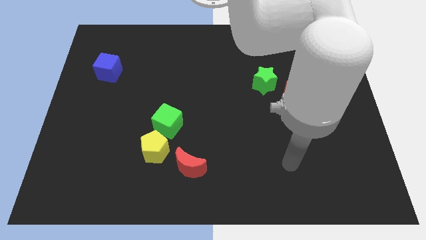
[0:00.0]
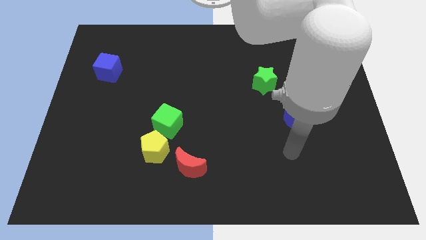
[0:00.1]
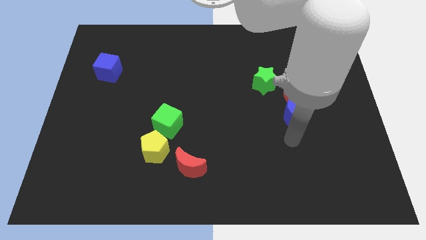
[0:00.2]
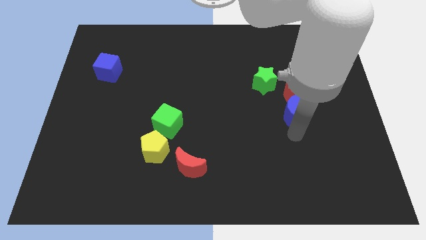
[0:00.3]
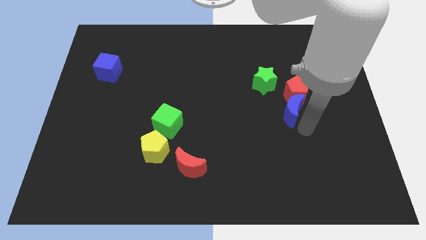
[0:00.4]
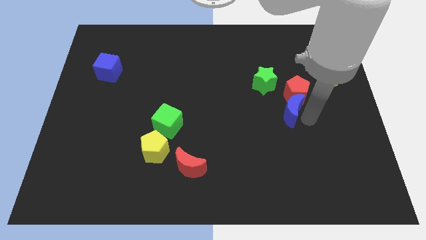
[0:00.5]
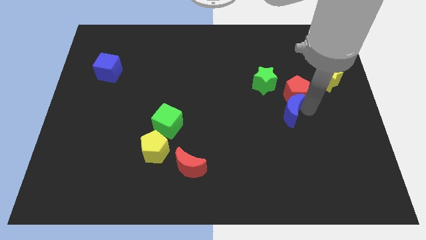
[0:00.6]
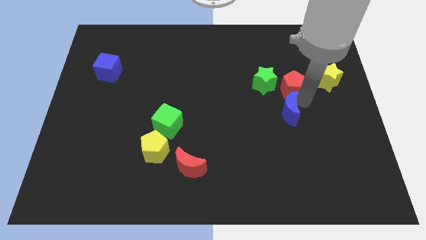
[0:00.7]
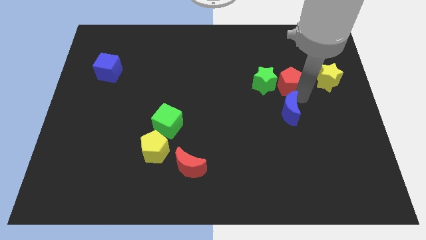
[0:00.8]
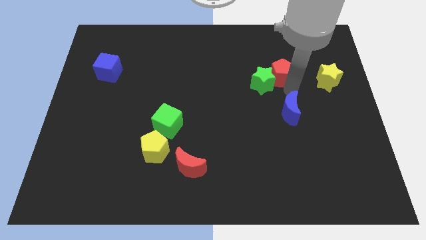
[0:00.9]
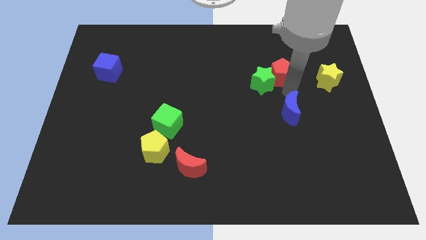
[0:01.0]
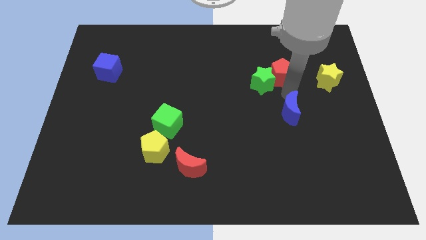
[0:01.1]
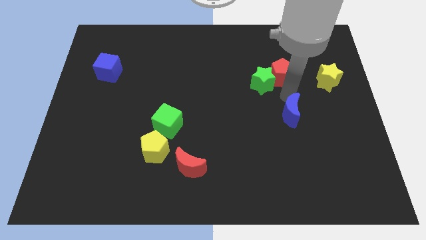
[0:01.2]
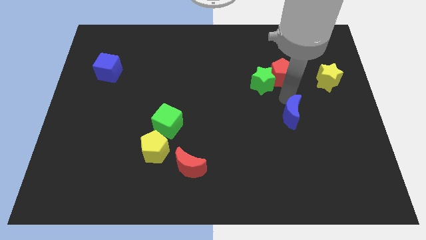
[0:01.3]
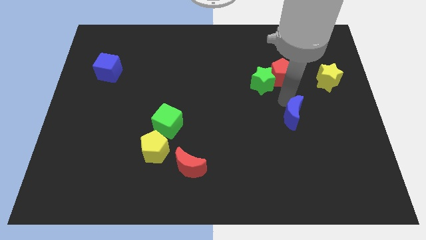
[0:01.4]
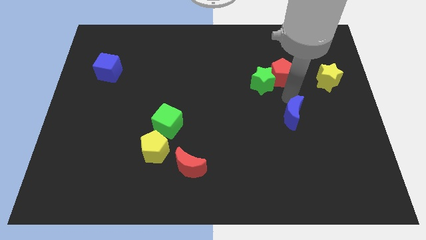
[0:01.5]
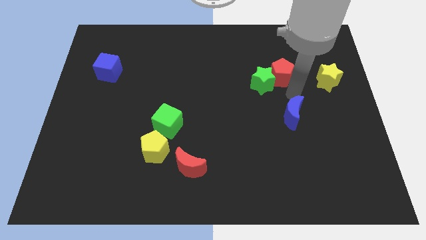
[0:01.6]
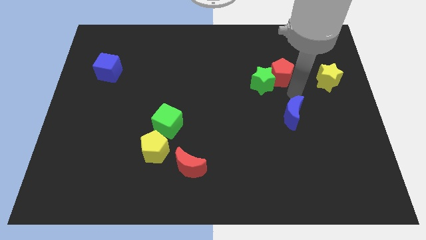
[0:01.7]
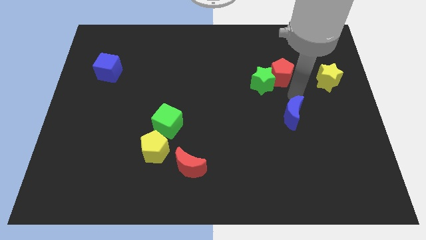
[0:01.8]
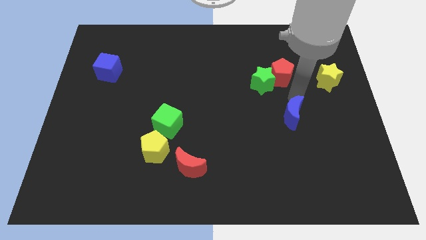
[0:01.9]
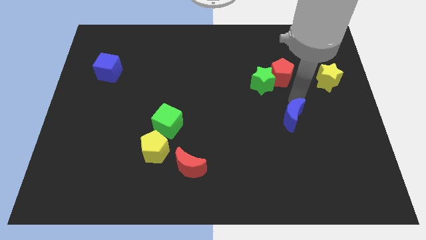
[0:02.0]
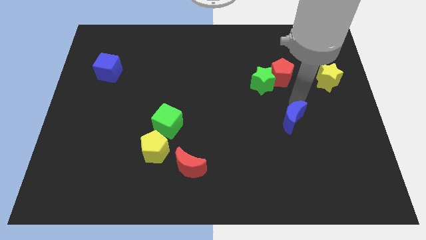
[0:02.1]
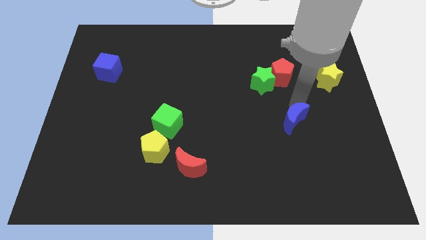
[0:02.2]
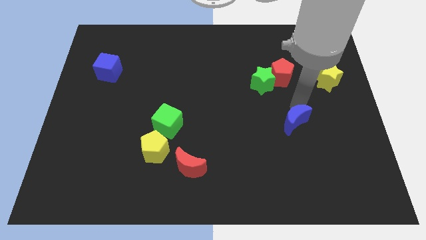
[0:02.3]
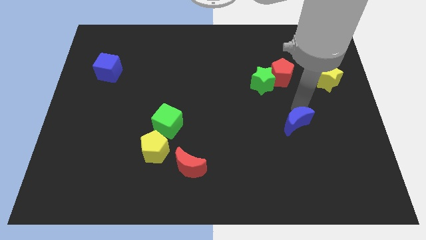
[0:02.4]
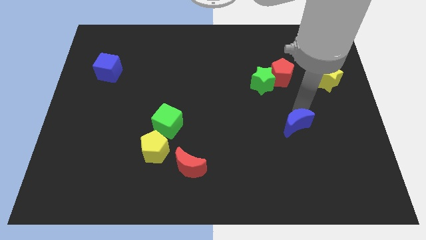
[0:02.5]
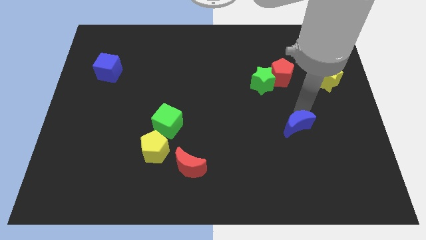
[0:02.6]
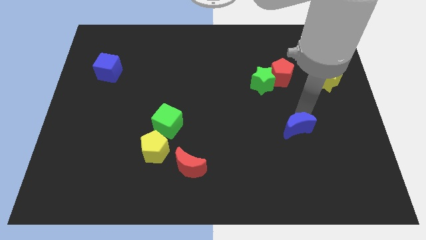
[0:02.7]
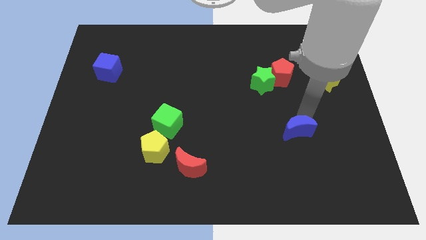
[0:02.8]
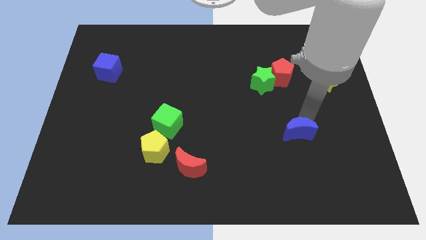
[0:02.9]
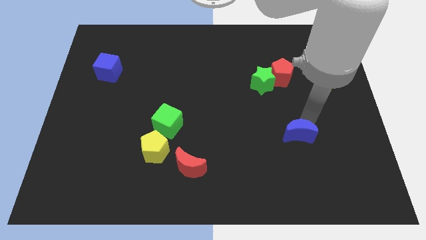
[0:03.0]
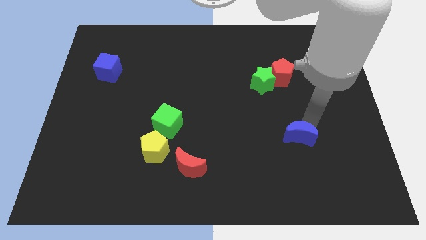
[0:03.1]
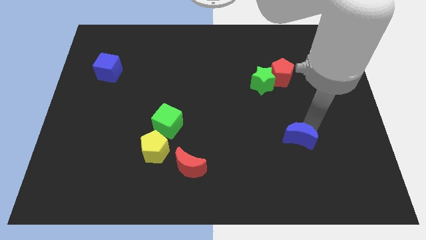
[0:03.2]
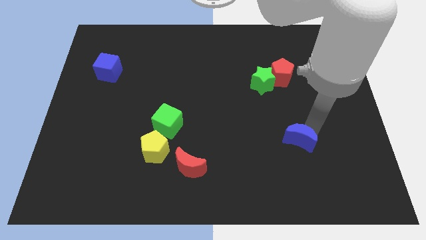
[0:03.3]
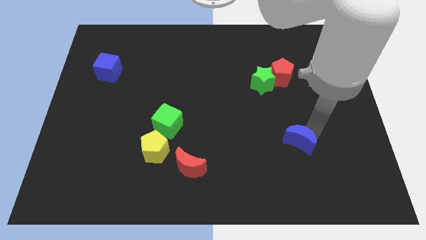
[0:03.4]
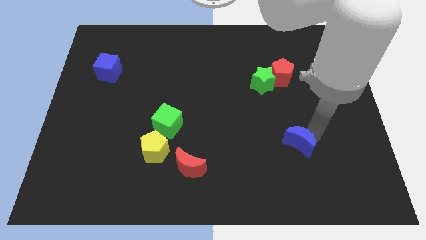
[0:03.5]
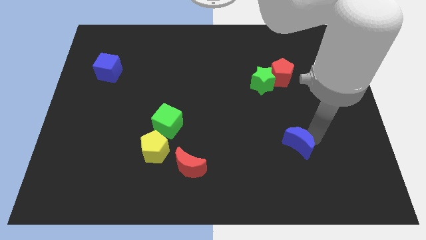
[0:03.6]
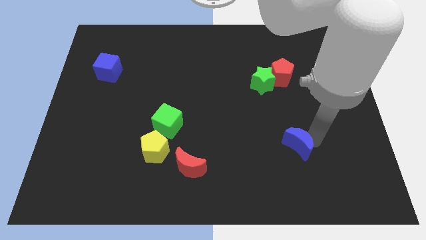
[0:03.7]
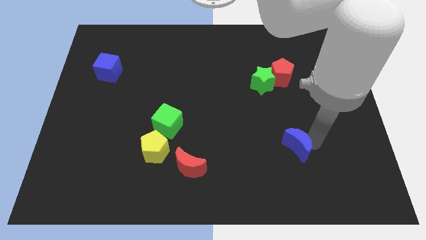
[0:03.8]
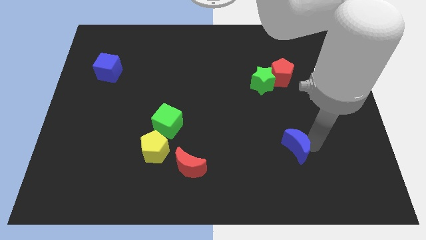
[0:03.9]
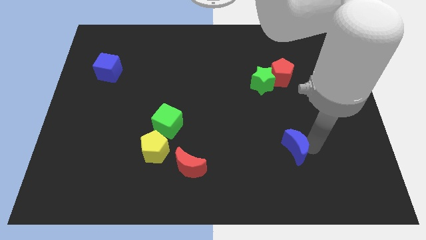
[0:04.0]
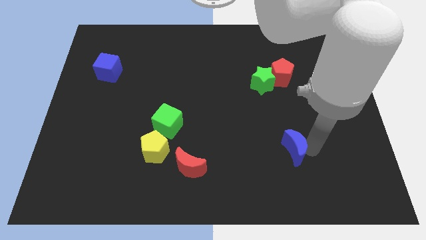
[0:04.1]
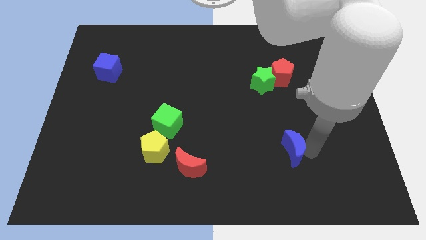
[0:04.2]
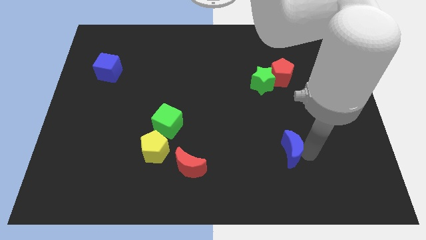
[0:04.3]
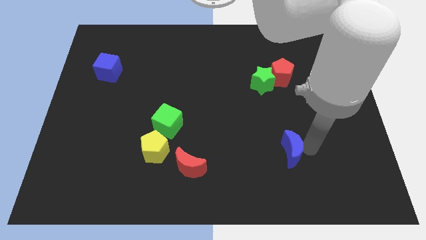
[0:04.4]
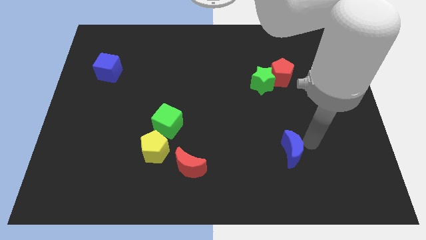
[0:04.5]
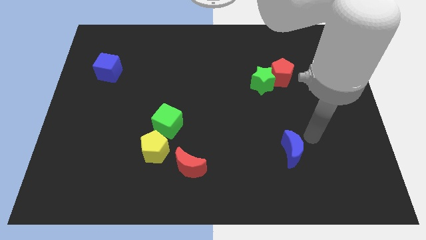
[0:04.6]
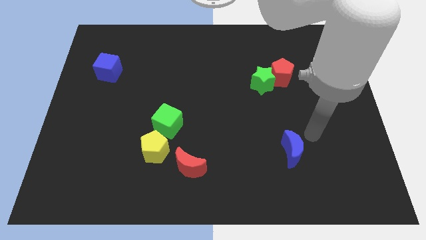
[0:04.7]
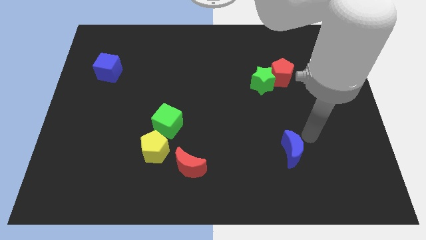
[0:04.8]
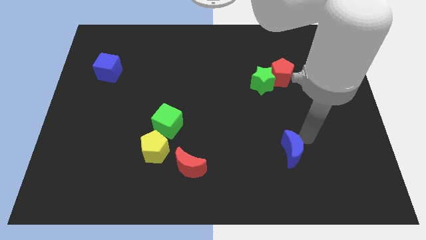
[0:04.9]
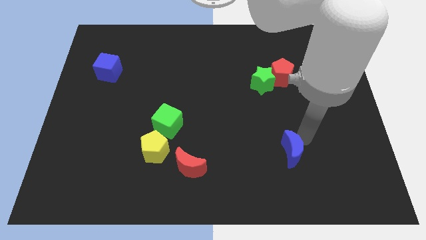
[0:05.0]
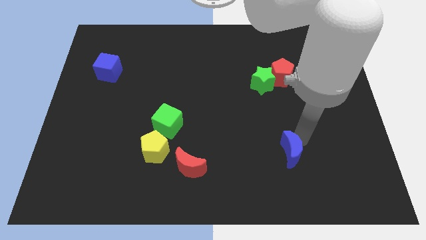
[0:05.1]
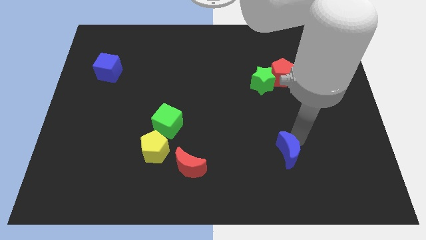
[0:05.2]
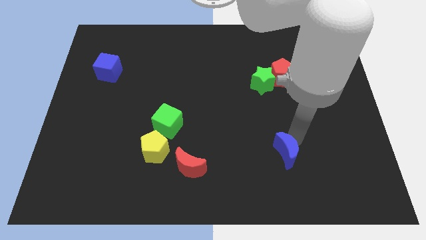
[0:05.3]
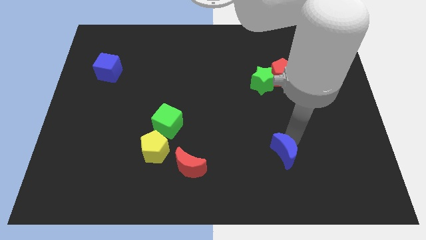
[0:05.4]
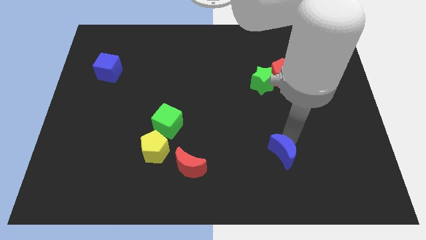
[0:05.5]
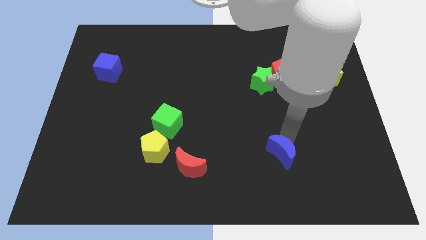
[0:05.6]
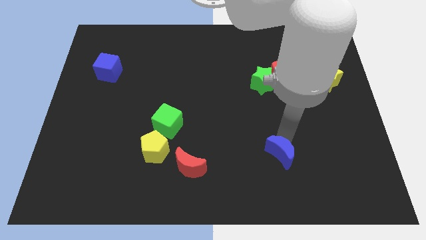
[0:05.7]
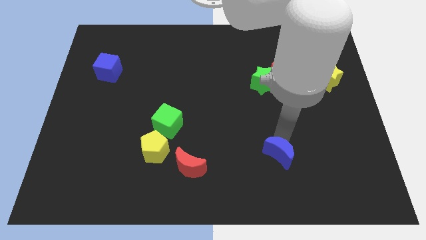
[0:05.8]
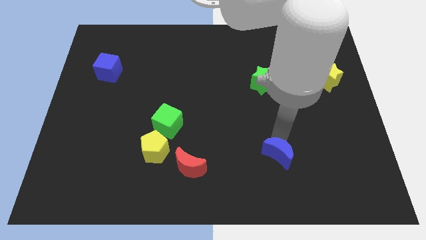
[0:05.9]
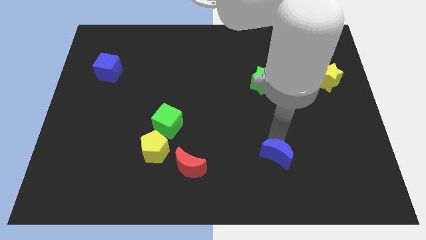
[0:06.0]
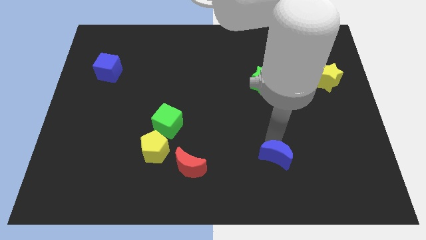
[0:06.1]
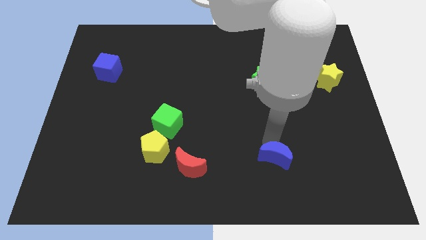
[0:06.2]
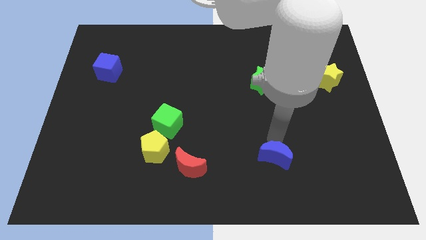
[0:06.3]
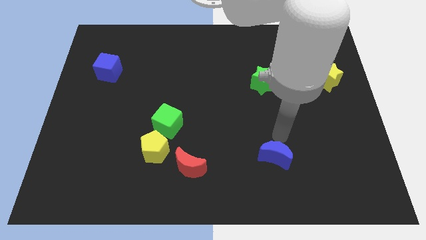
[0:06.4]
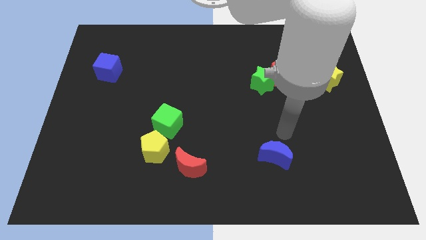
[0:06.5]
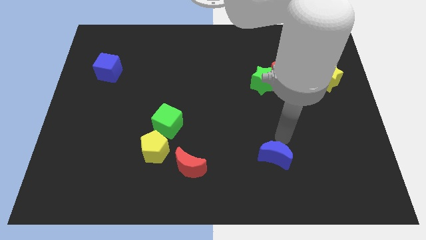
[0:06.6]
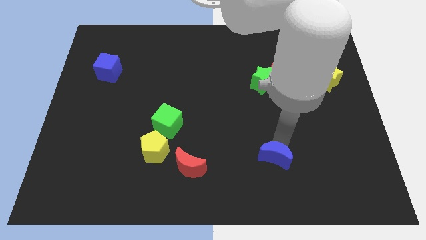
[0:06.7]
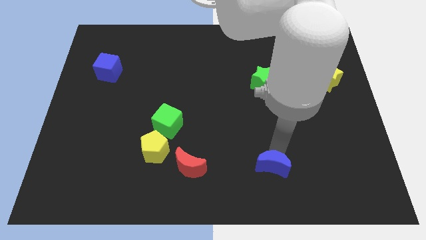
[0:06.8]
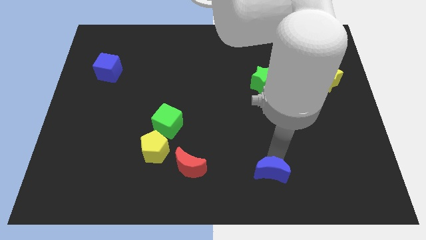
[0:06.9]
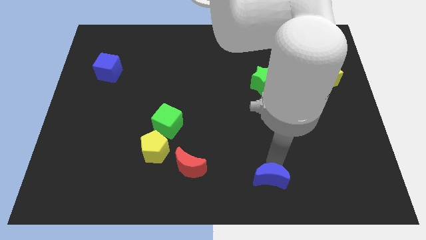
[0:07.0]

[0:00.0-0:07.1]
push the blue moon to the bottom side
